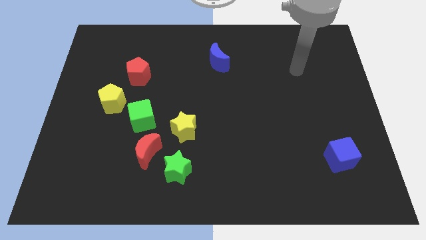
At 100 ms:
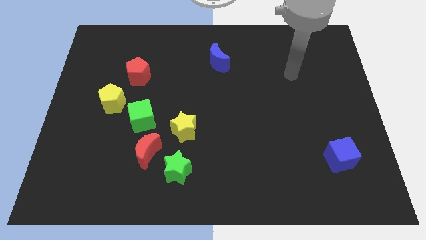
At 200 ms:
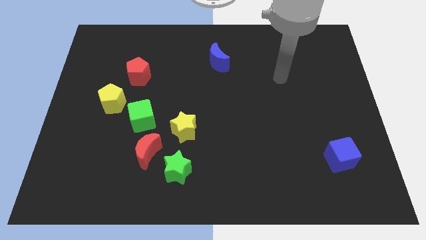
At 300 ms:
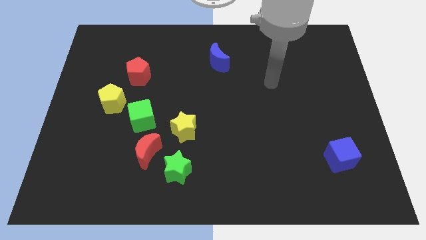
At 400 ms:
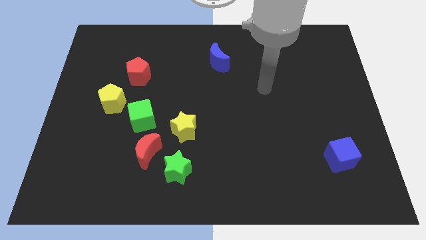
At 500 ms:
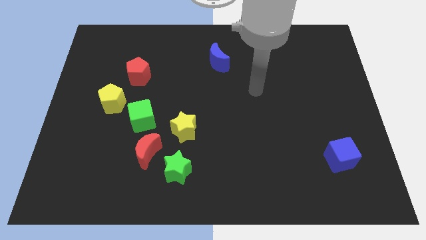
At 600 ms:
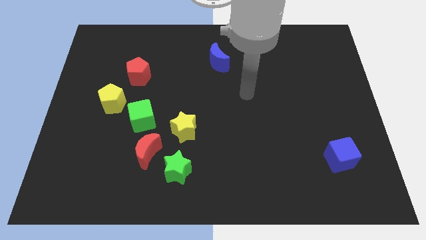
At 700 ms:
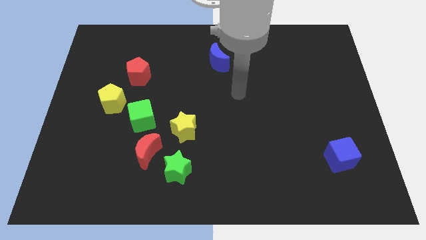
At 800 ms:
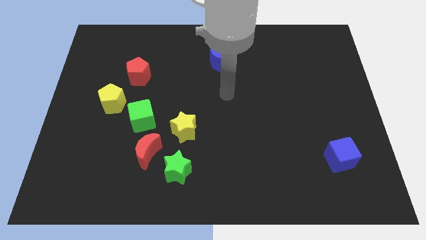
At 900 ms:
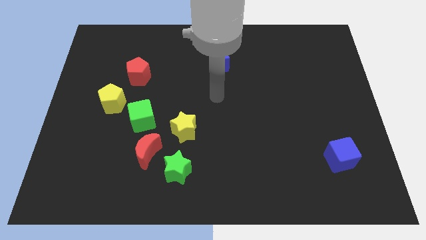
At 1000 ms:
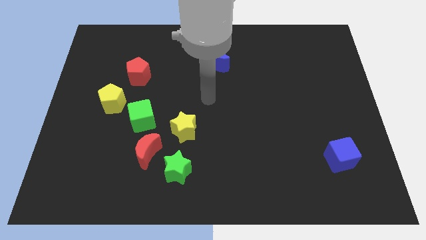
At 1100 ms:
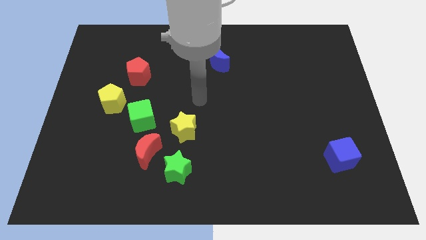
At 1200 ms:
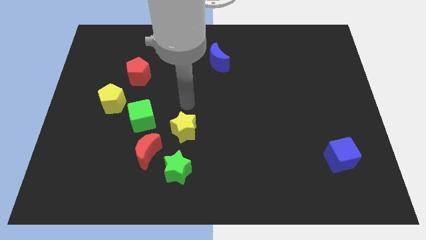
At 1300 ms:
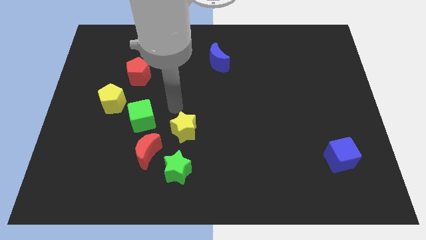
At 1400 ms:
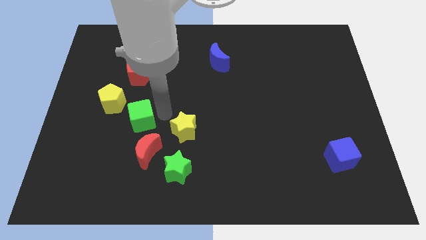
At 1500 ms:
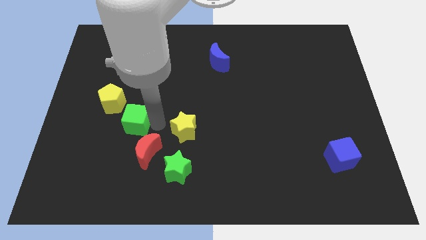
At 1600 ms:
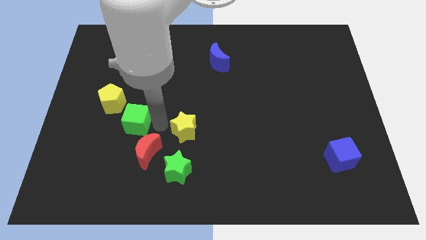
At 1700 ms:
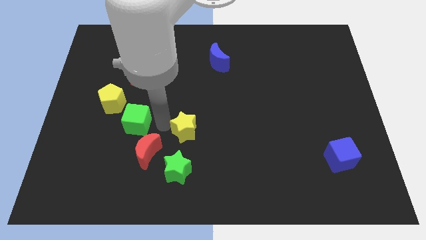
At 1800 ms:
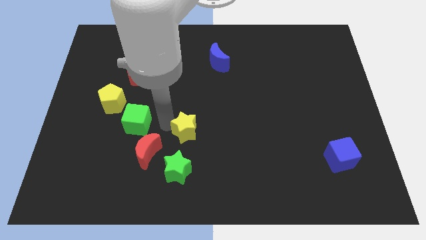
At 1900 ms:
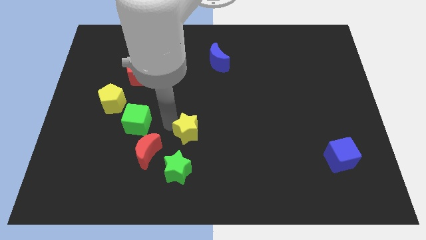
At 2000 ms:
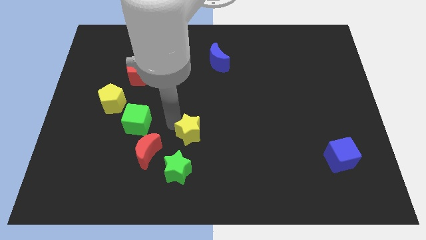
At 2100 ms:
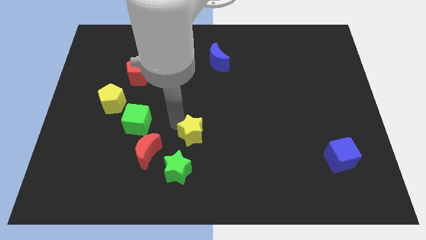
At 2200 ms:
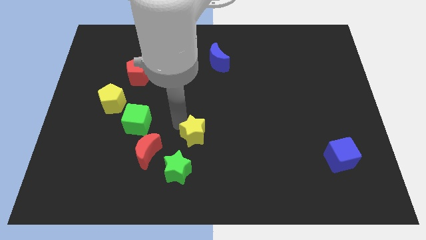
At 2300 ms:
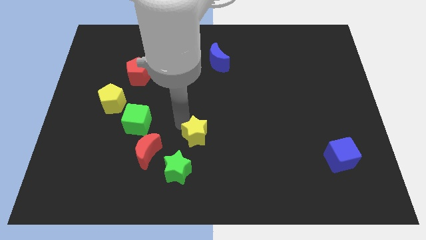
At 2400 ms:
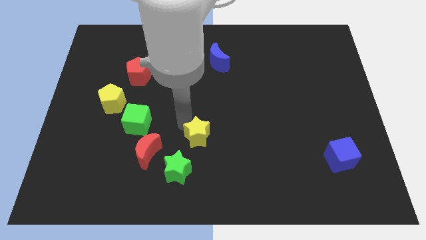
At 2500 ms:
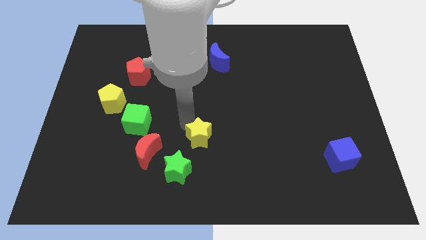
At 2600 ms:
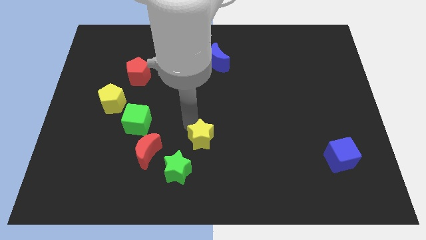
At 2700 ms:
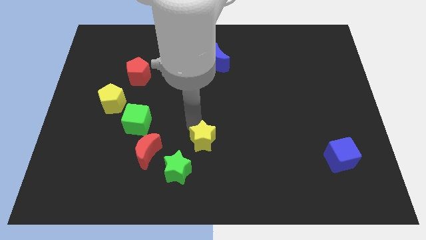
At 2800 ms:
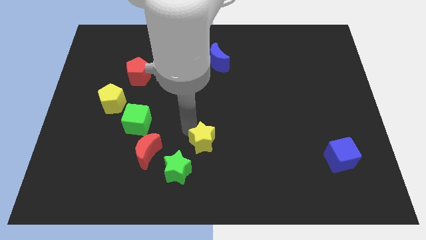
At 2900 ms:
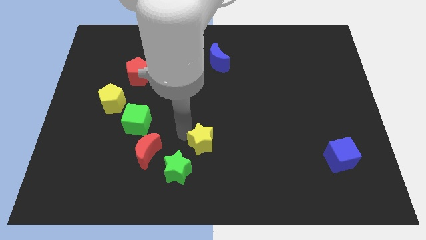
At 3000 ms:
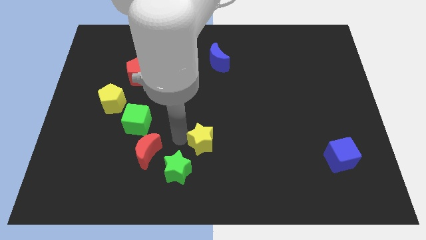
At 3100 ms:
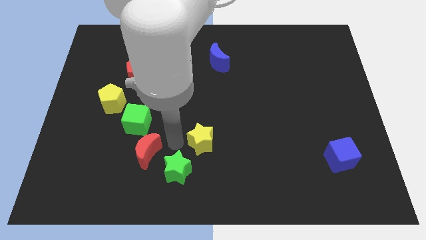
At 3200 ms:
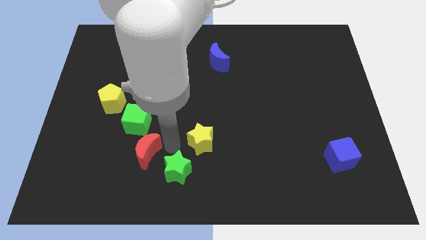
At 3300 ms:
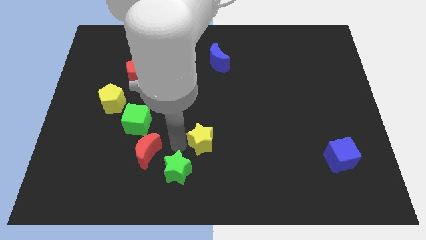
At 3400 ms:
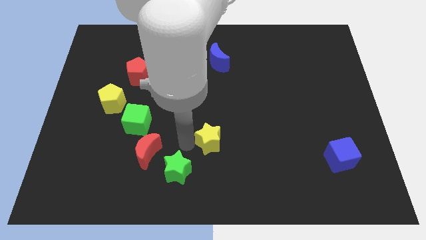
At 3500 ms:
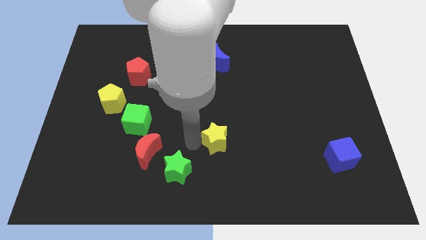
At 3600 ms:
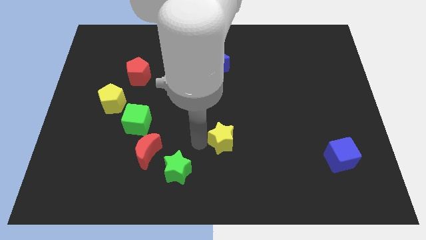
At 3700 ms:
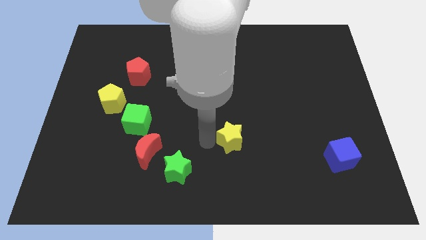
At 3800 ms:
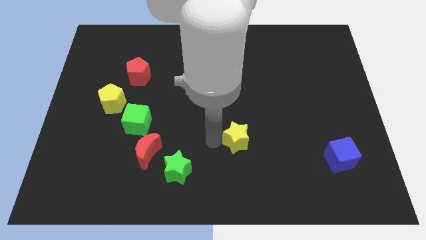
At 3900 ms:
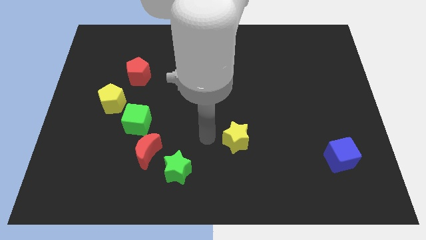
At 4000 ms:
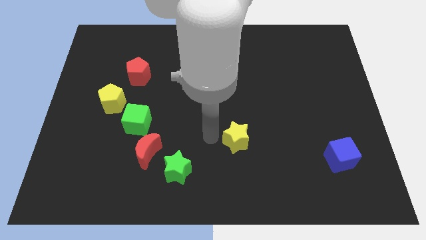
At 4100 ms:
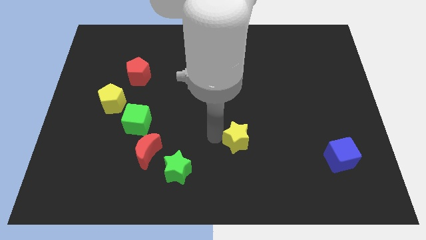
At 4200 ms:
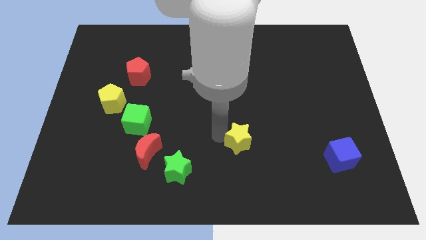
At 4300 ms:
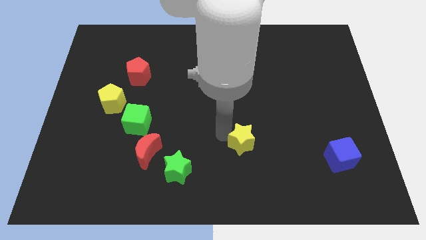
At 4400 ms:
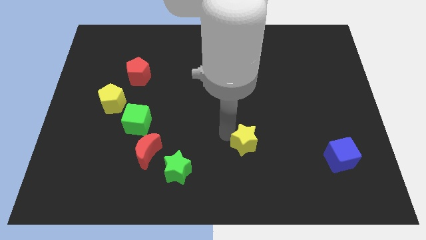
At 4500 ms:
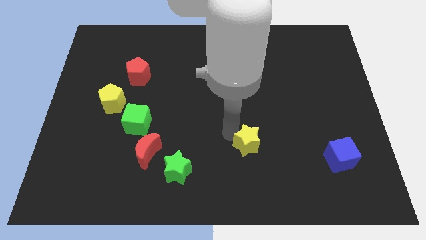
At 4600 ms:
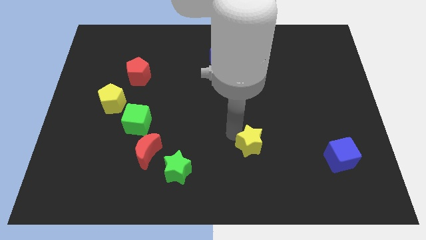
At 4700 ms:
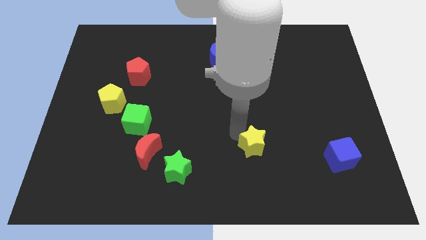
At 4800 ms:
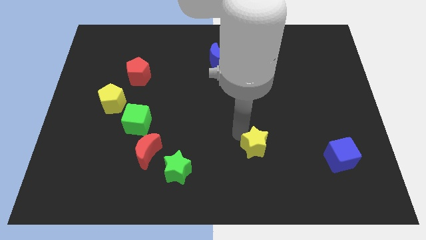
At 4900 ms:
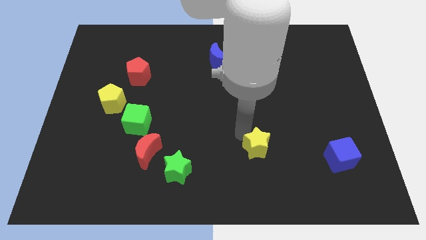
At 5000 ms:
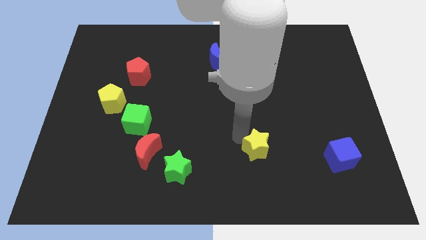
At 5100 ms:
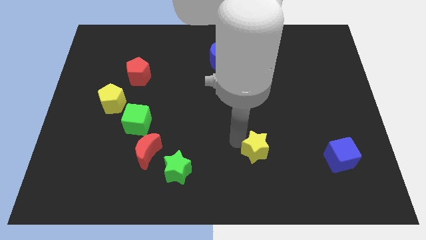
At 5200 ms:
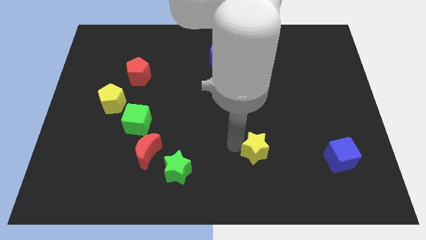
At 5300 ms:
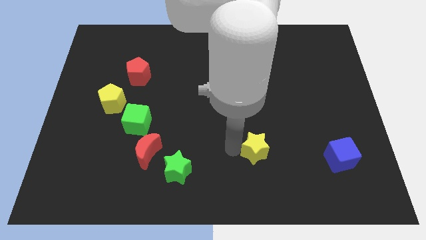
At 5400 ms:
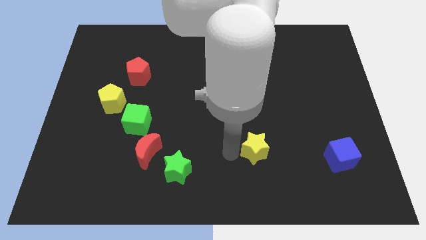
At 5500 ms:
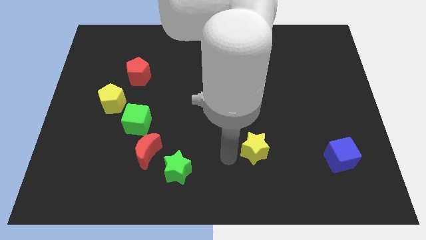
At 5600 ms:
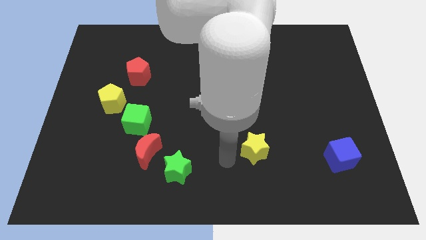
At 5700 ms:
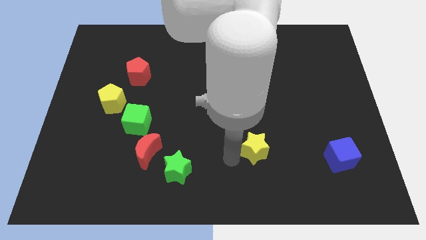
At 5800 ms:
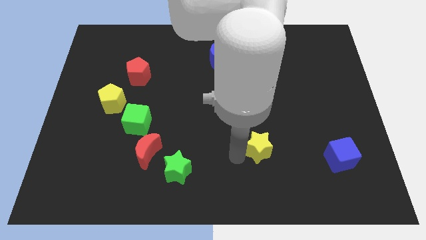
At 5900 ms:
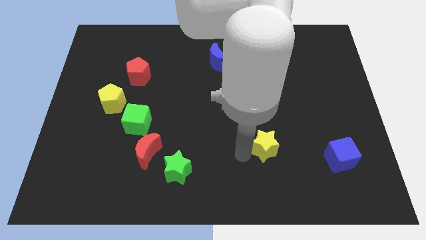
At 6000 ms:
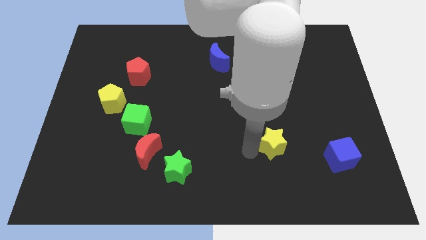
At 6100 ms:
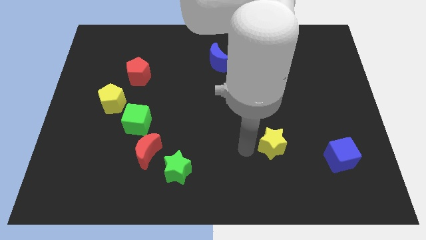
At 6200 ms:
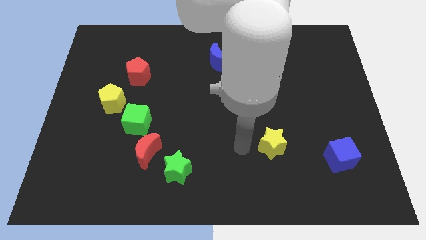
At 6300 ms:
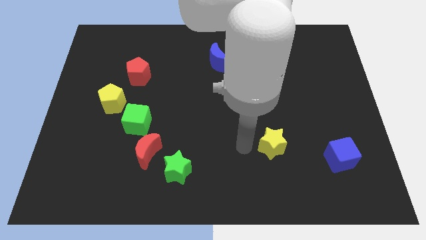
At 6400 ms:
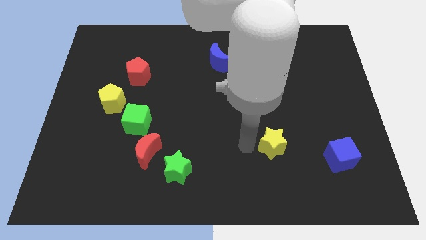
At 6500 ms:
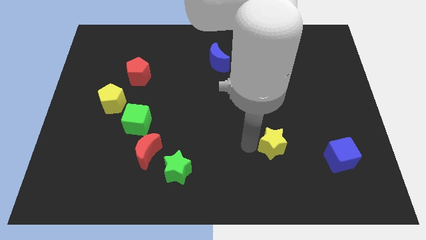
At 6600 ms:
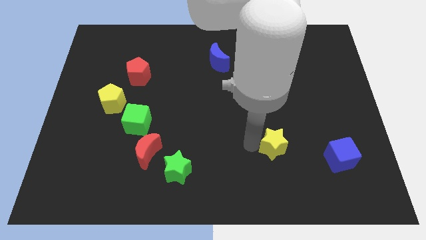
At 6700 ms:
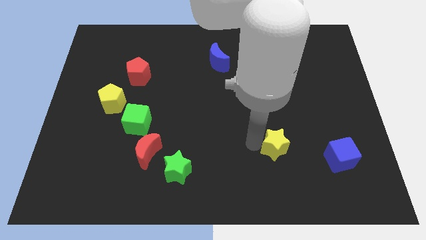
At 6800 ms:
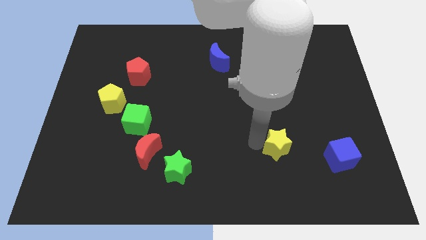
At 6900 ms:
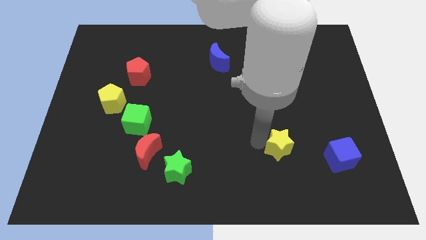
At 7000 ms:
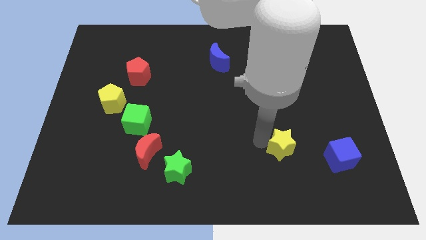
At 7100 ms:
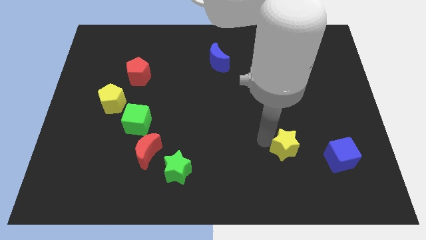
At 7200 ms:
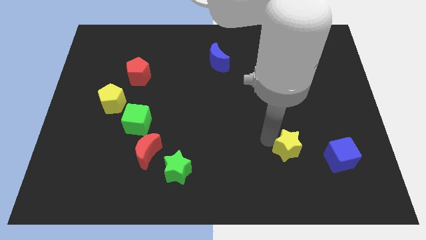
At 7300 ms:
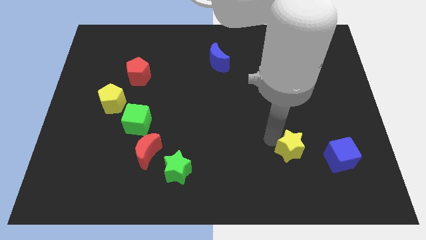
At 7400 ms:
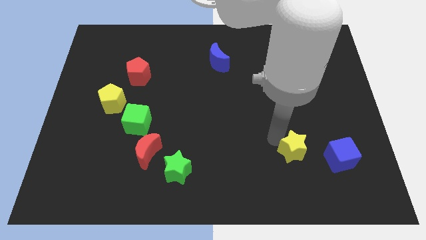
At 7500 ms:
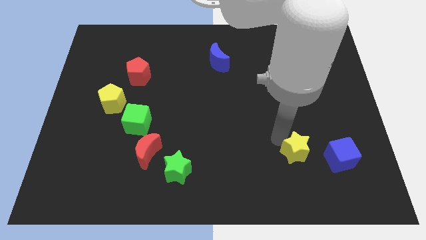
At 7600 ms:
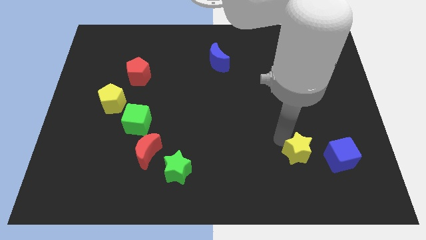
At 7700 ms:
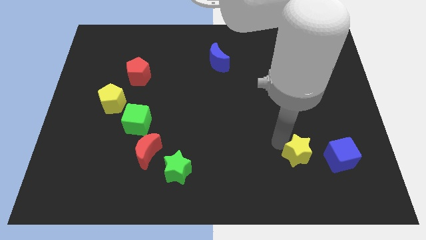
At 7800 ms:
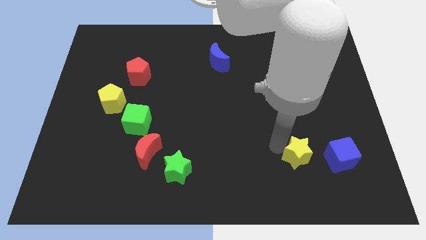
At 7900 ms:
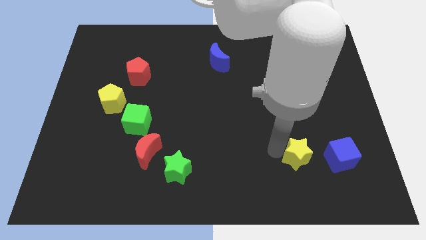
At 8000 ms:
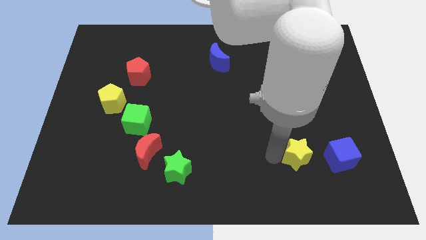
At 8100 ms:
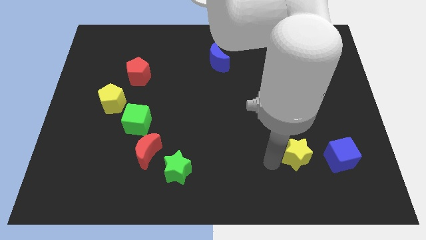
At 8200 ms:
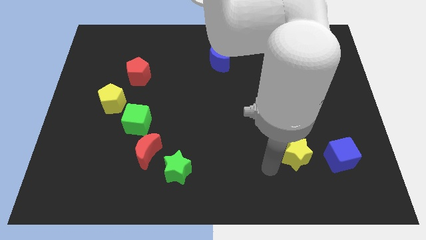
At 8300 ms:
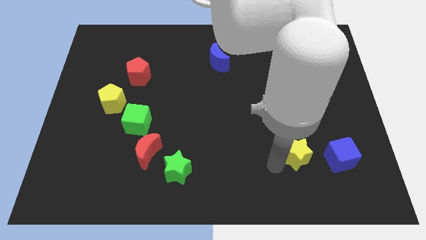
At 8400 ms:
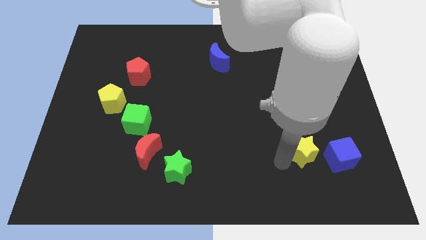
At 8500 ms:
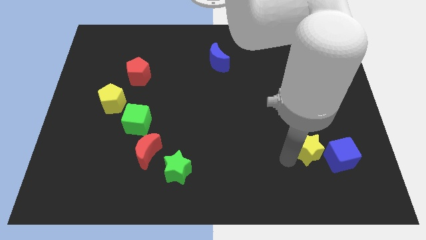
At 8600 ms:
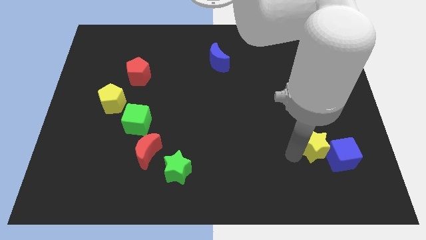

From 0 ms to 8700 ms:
put the yellow star next to the blue cube
